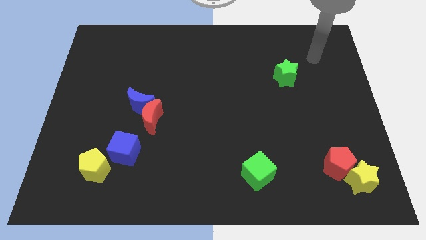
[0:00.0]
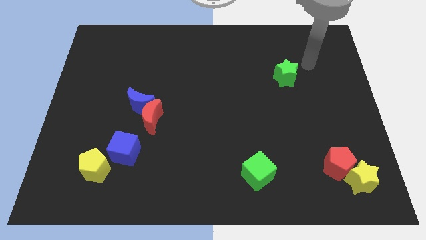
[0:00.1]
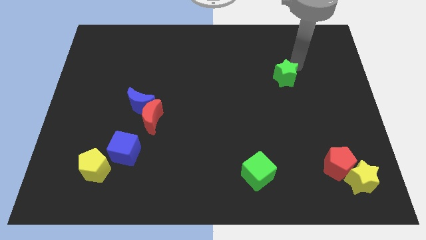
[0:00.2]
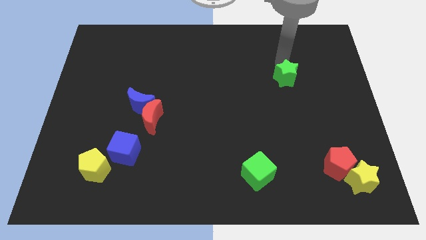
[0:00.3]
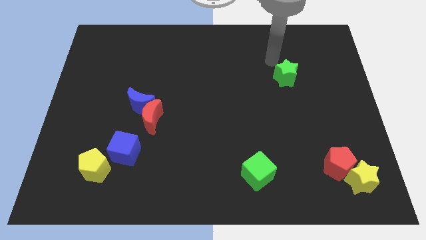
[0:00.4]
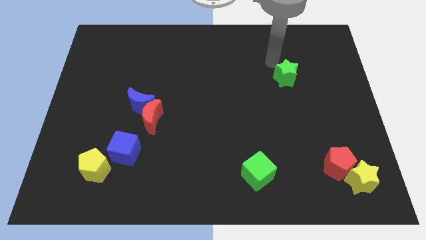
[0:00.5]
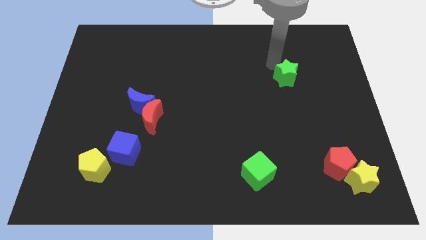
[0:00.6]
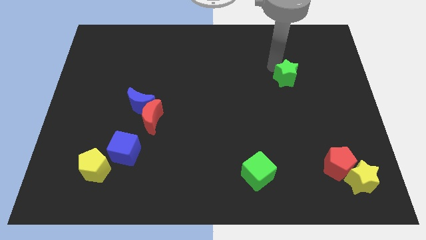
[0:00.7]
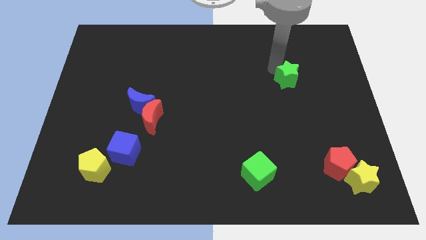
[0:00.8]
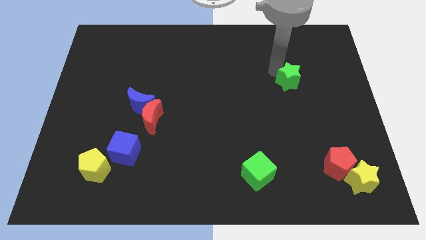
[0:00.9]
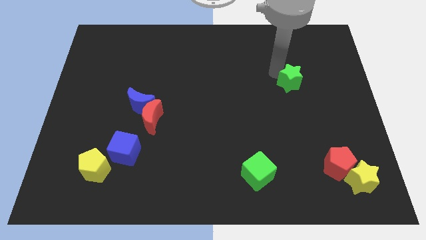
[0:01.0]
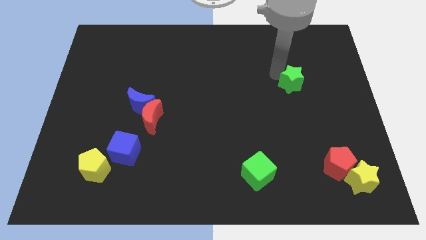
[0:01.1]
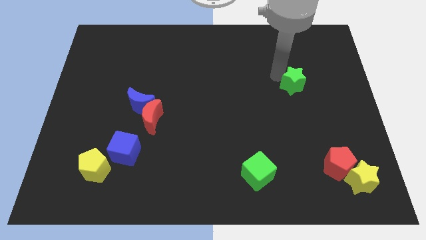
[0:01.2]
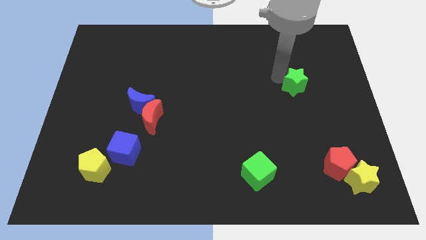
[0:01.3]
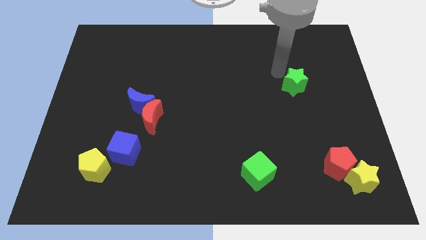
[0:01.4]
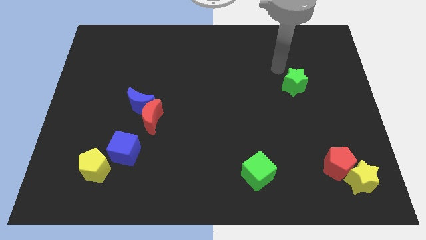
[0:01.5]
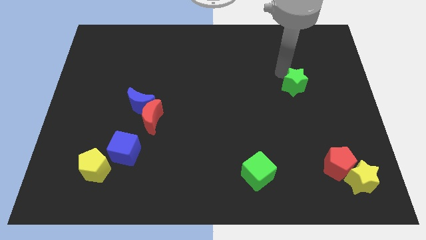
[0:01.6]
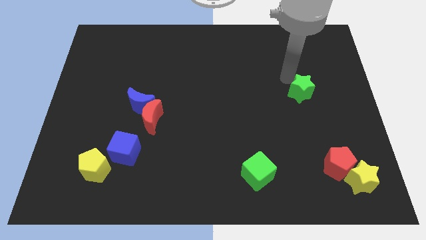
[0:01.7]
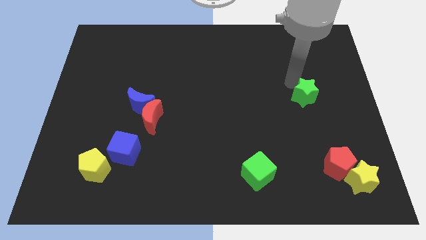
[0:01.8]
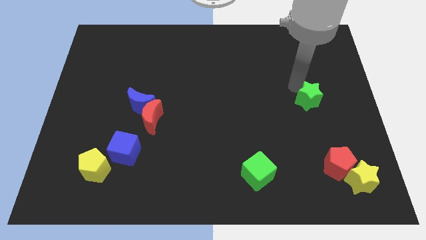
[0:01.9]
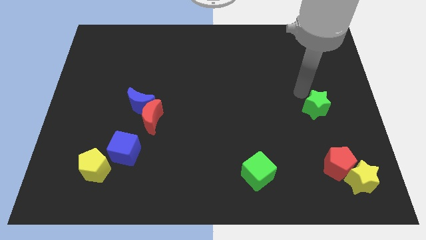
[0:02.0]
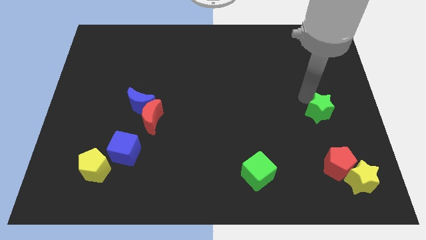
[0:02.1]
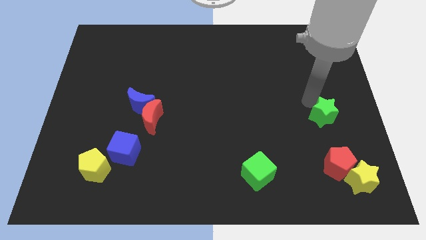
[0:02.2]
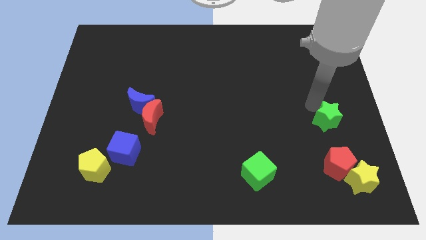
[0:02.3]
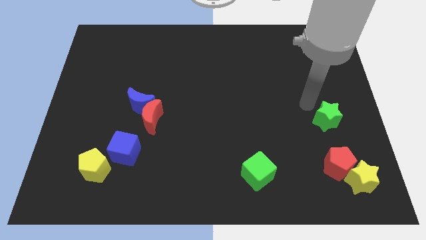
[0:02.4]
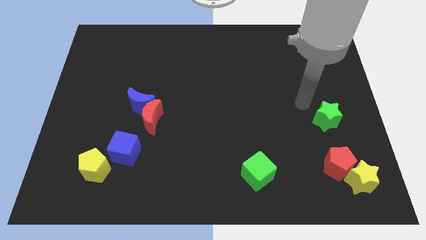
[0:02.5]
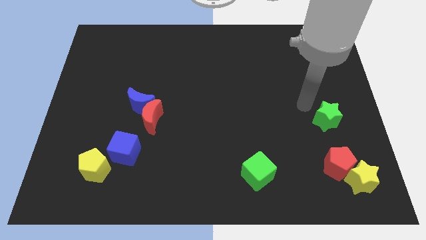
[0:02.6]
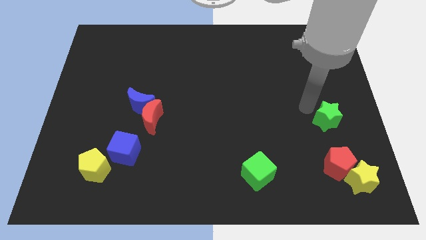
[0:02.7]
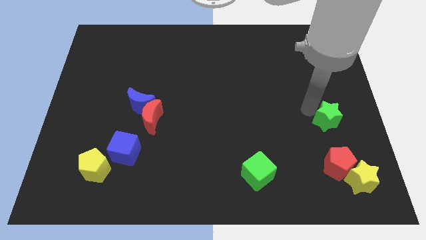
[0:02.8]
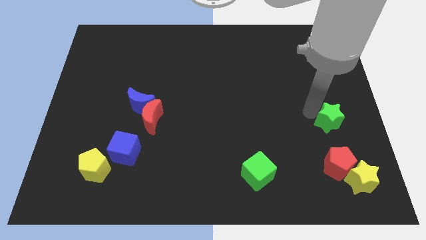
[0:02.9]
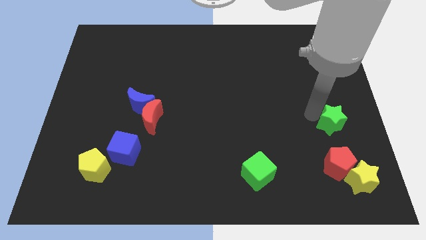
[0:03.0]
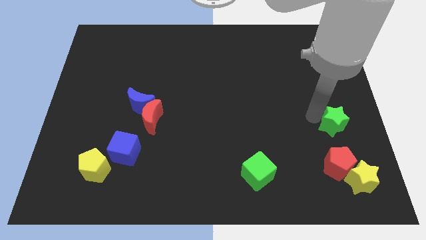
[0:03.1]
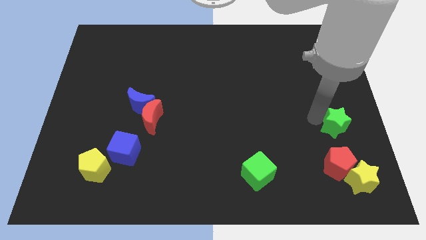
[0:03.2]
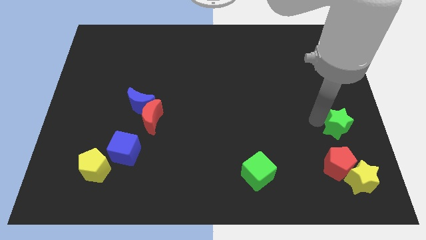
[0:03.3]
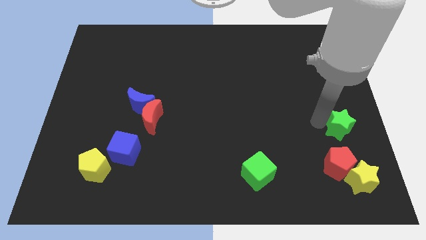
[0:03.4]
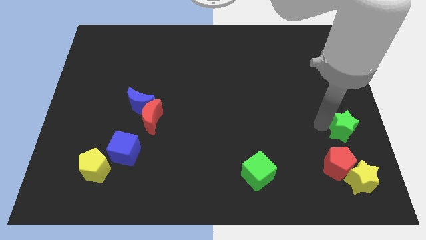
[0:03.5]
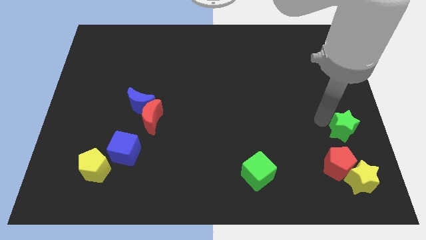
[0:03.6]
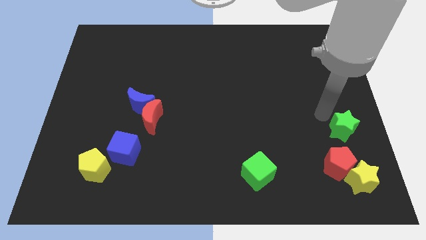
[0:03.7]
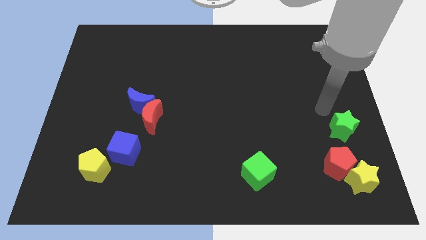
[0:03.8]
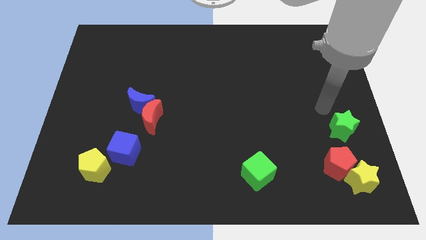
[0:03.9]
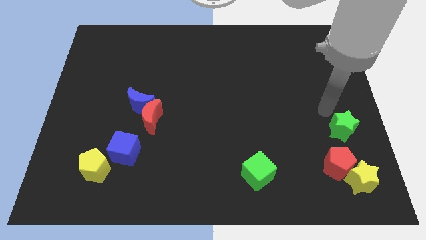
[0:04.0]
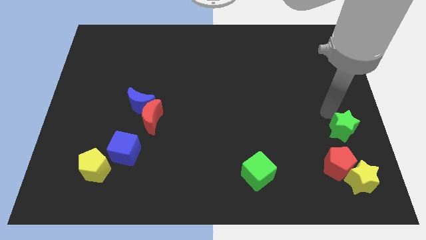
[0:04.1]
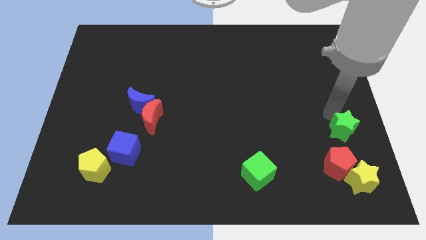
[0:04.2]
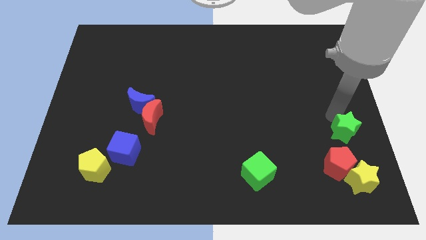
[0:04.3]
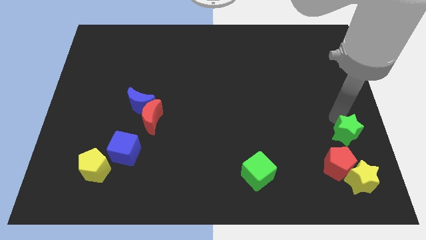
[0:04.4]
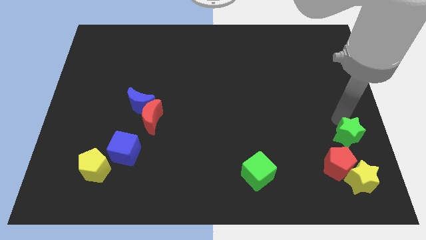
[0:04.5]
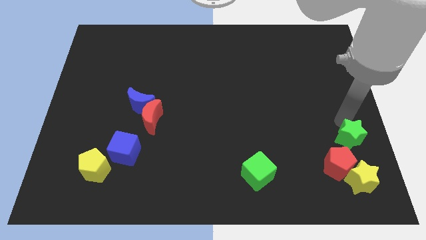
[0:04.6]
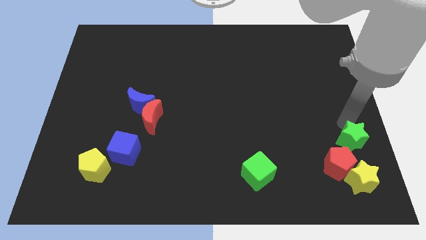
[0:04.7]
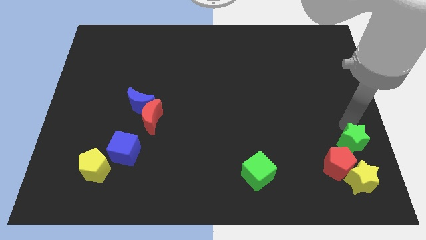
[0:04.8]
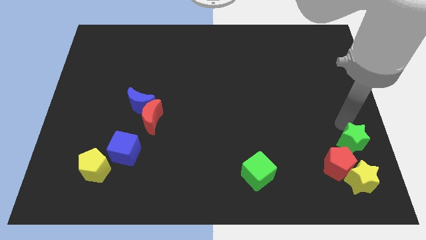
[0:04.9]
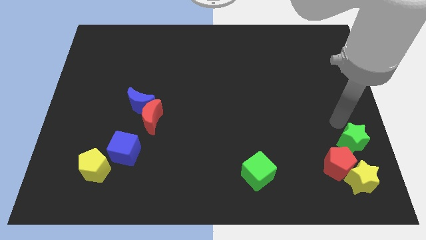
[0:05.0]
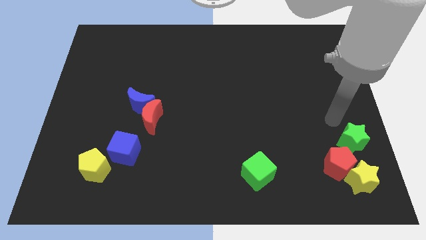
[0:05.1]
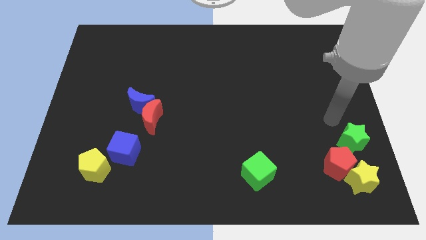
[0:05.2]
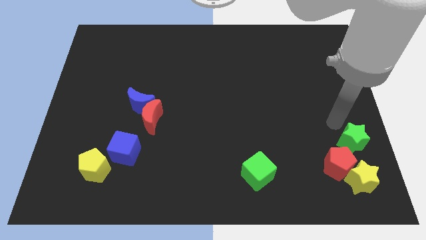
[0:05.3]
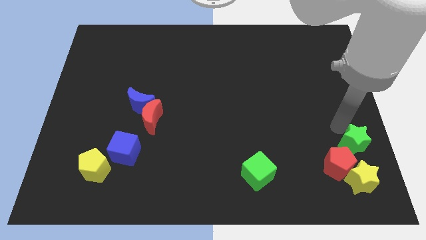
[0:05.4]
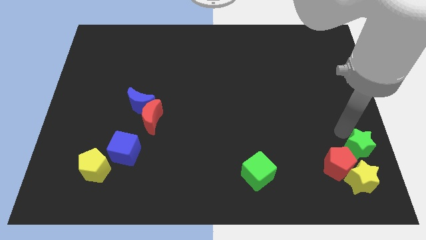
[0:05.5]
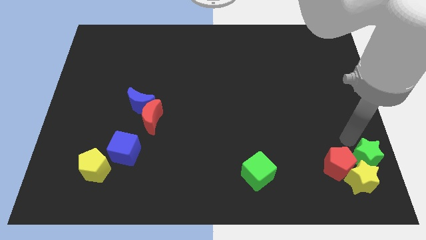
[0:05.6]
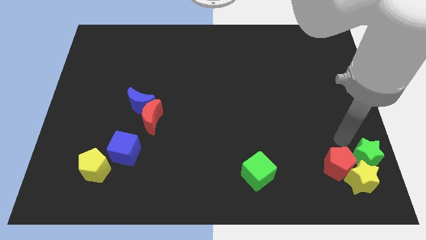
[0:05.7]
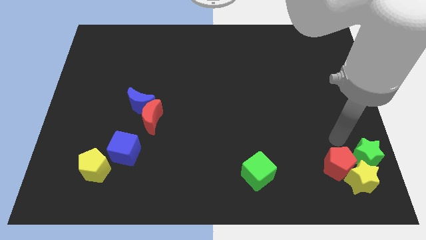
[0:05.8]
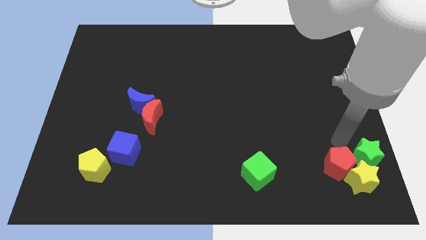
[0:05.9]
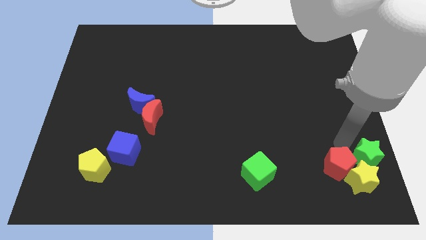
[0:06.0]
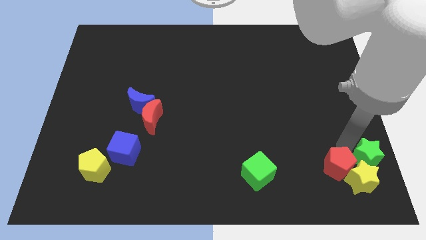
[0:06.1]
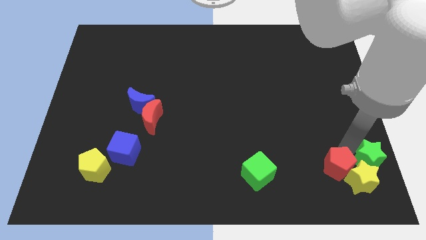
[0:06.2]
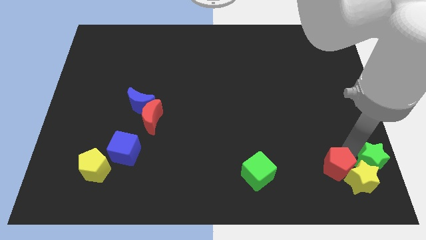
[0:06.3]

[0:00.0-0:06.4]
put the green star to the lower right corner
